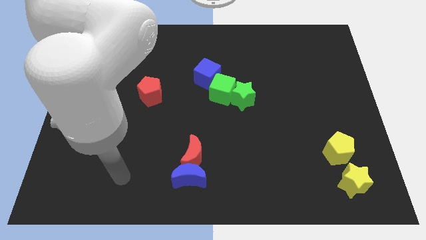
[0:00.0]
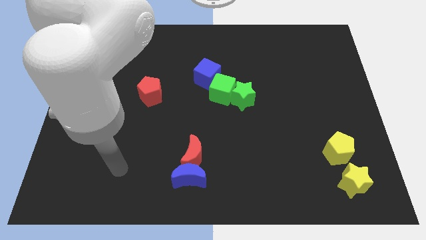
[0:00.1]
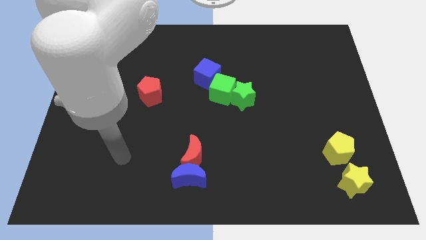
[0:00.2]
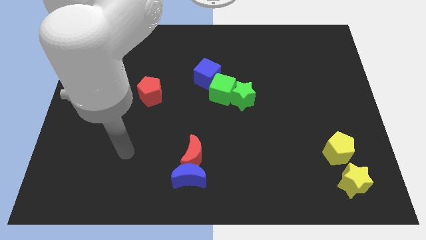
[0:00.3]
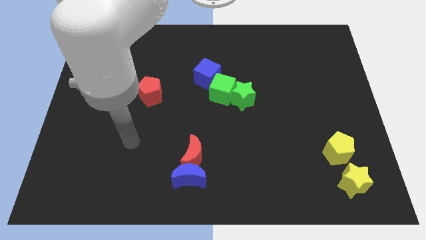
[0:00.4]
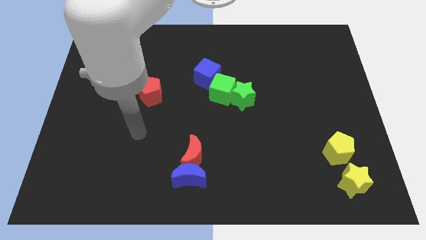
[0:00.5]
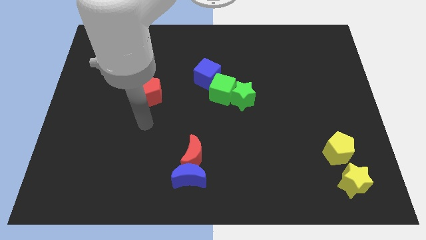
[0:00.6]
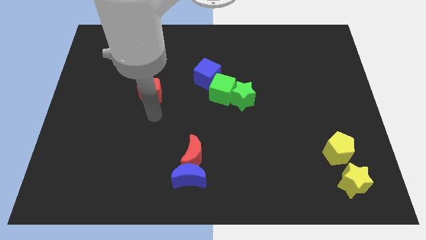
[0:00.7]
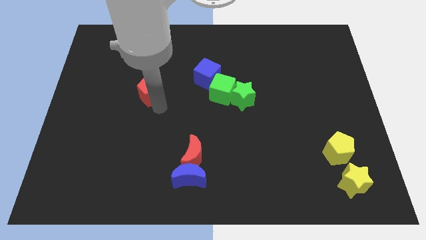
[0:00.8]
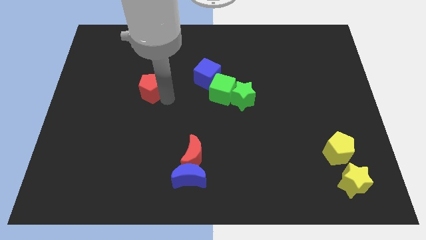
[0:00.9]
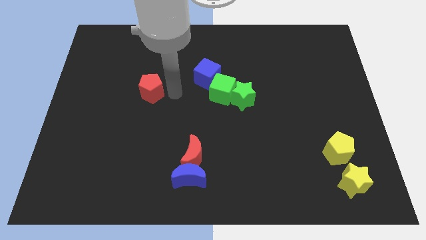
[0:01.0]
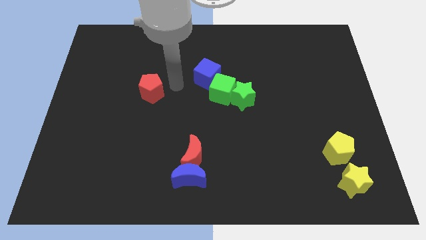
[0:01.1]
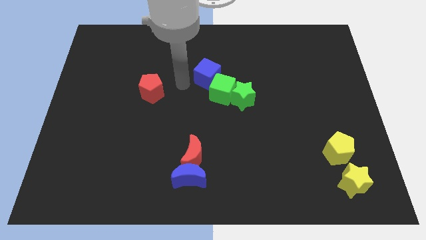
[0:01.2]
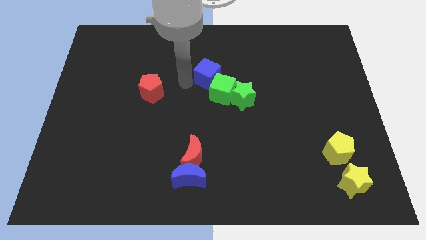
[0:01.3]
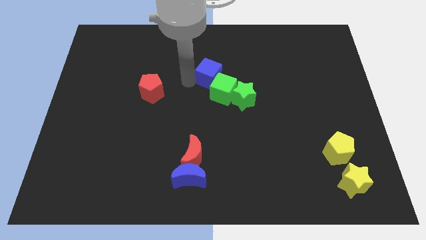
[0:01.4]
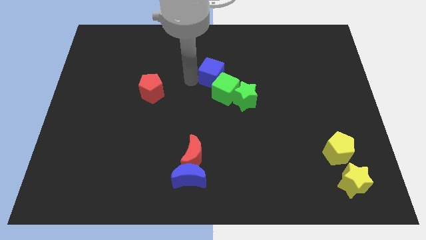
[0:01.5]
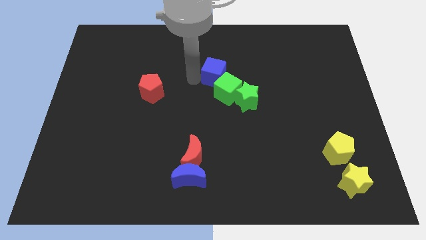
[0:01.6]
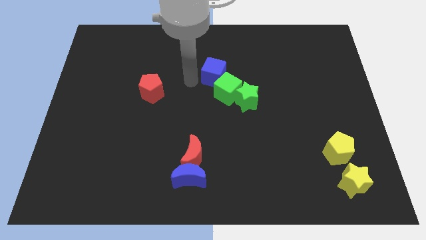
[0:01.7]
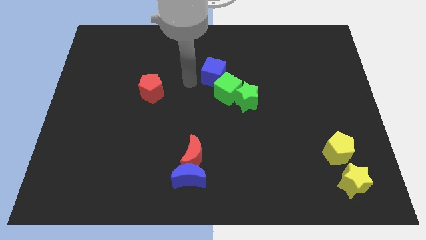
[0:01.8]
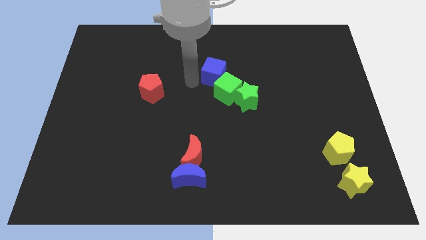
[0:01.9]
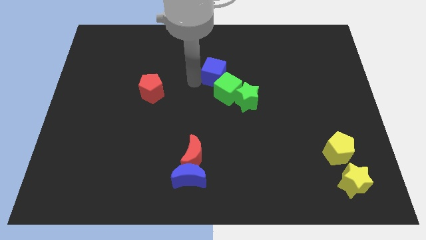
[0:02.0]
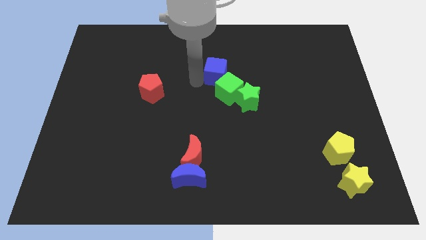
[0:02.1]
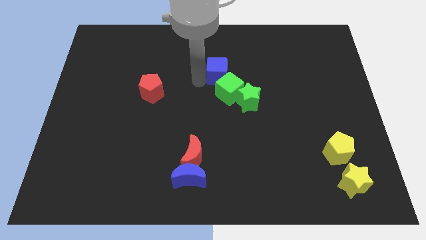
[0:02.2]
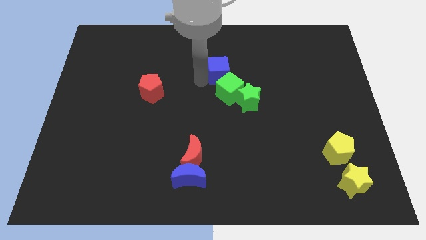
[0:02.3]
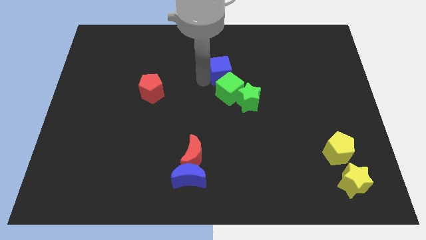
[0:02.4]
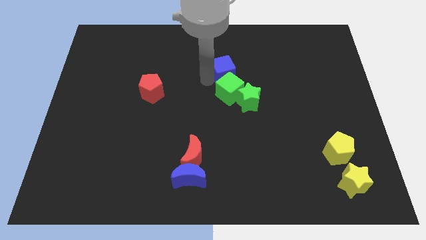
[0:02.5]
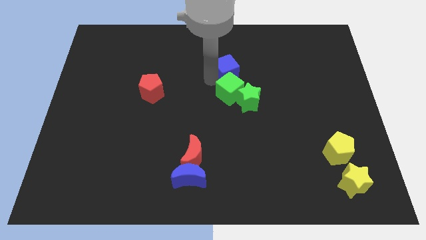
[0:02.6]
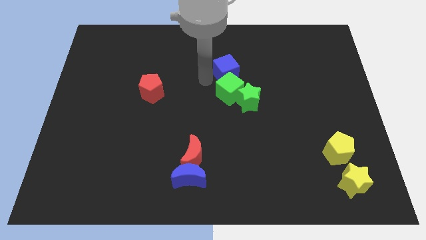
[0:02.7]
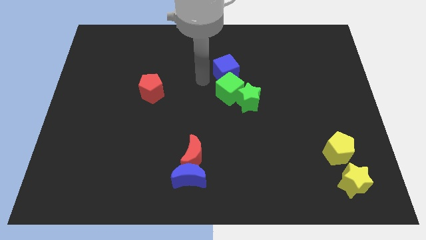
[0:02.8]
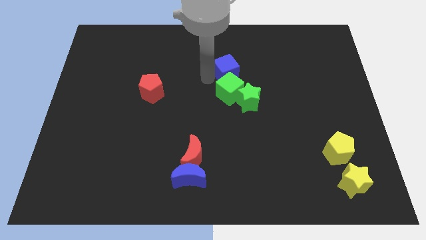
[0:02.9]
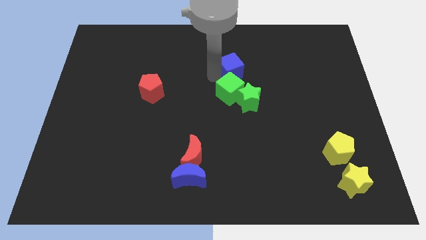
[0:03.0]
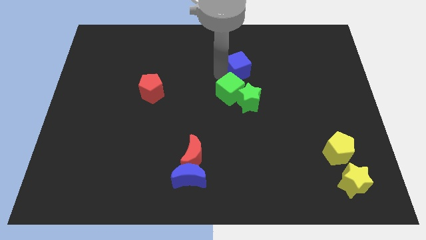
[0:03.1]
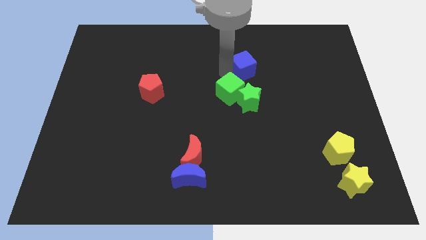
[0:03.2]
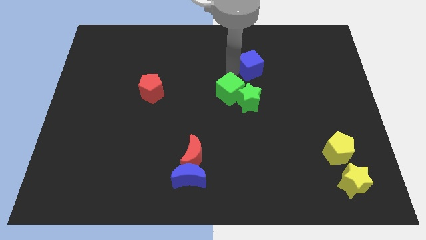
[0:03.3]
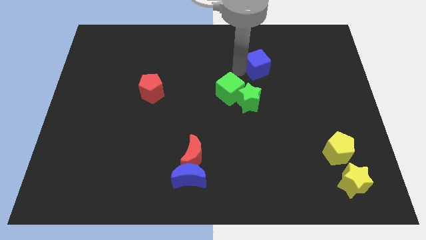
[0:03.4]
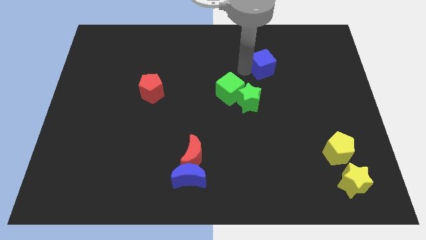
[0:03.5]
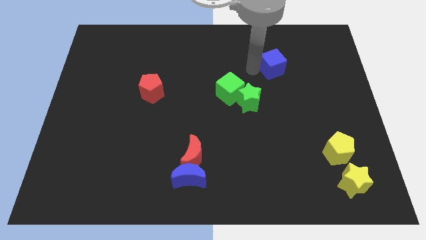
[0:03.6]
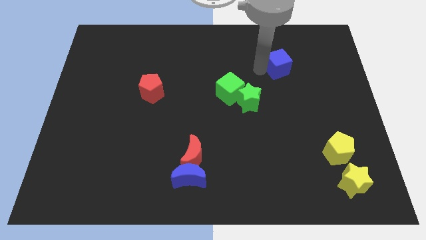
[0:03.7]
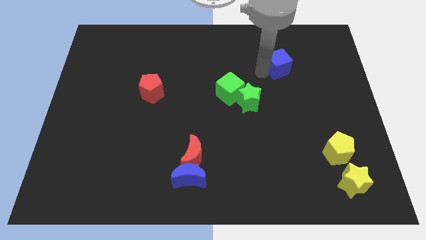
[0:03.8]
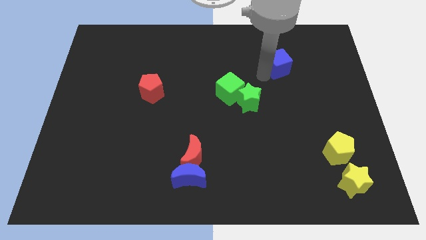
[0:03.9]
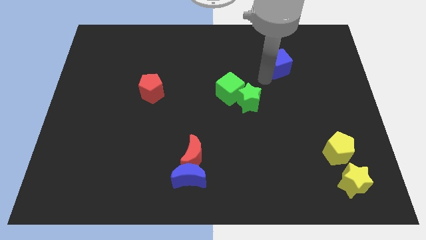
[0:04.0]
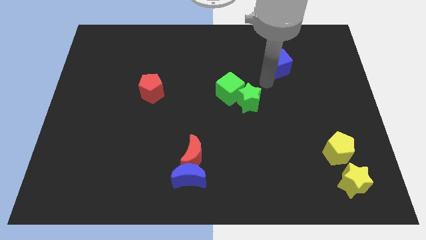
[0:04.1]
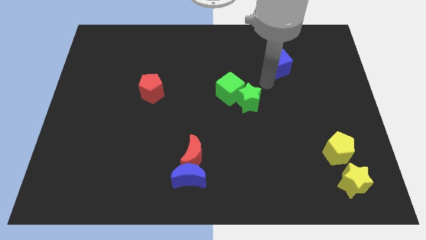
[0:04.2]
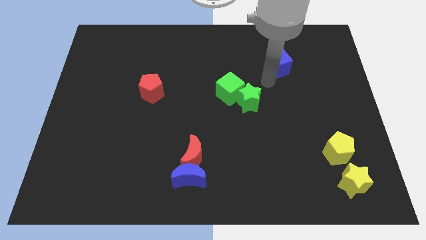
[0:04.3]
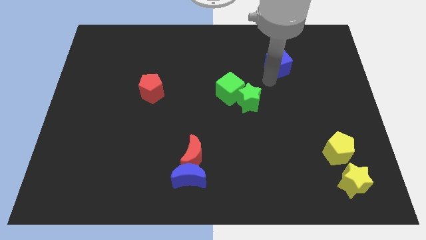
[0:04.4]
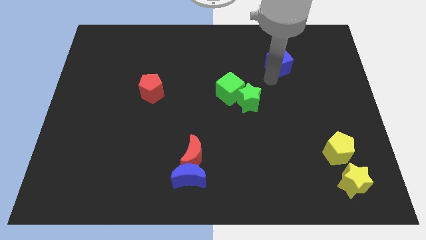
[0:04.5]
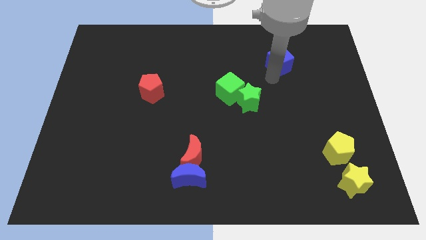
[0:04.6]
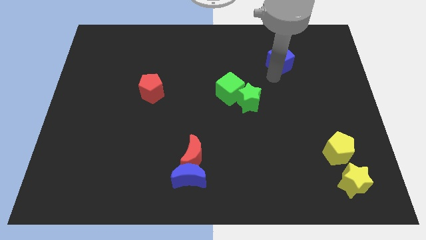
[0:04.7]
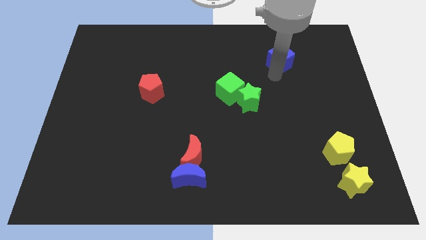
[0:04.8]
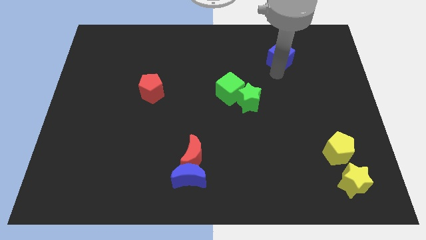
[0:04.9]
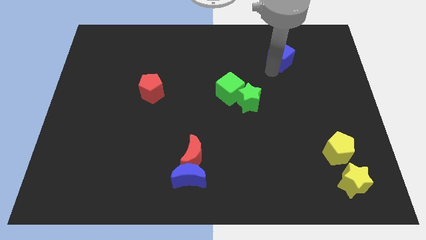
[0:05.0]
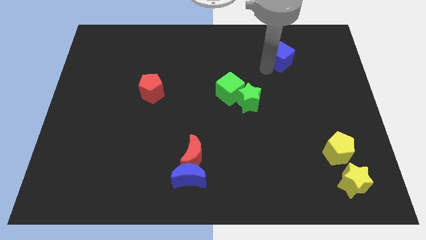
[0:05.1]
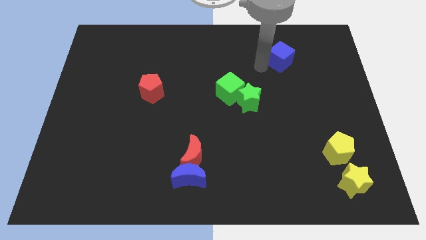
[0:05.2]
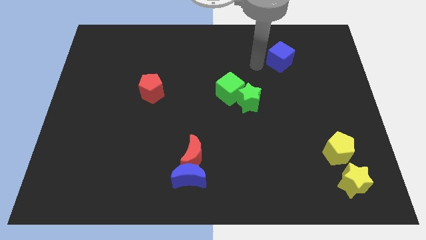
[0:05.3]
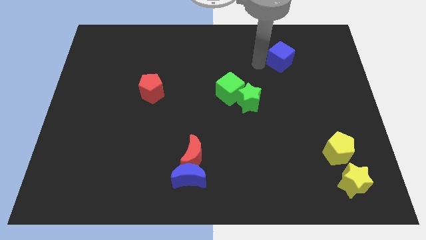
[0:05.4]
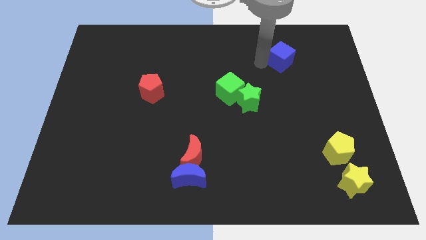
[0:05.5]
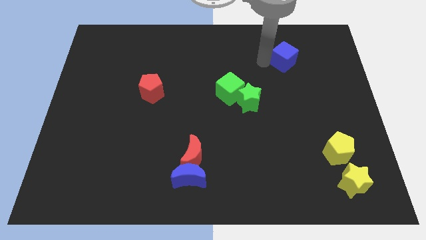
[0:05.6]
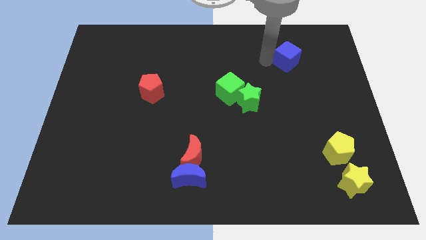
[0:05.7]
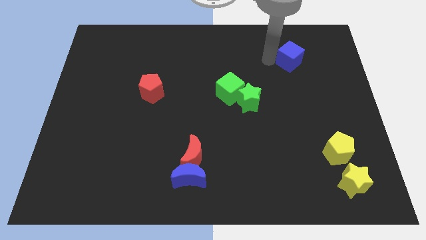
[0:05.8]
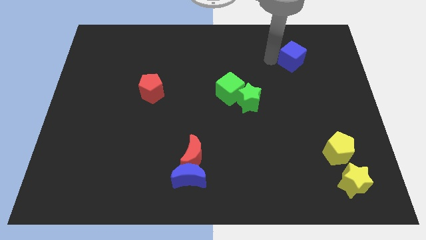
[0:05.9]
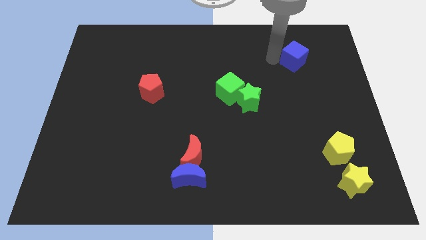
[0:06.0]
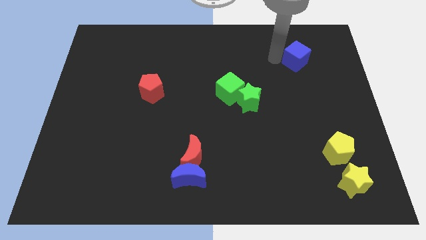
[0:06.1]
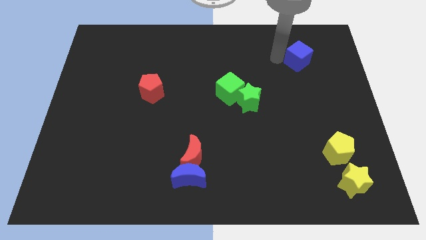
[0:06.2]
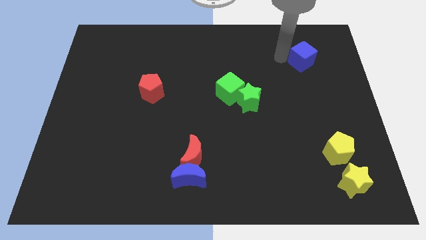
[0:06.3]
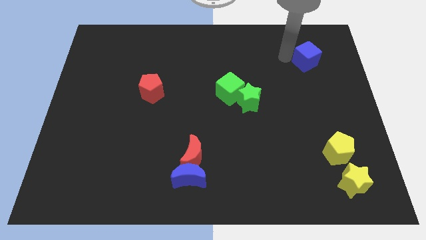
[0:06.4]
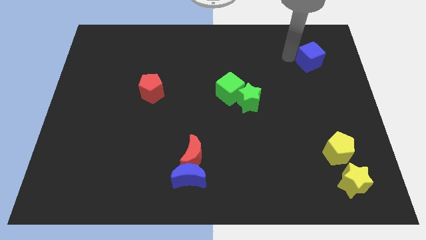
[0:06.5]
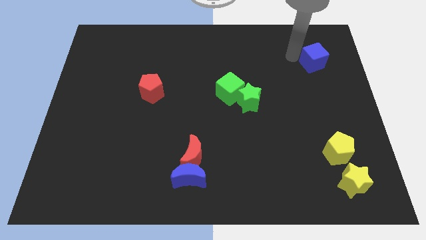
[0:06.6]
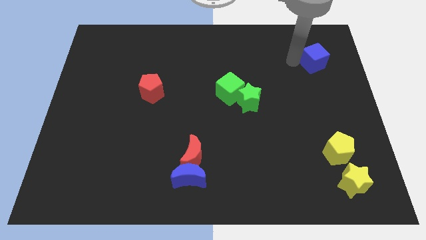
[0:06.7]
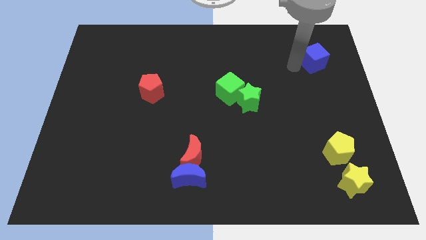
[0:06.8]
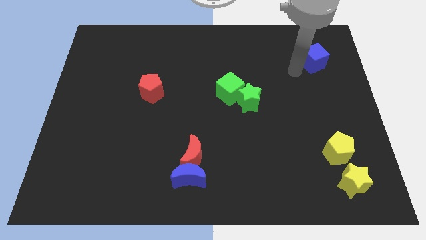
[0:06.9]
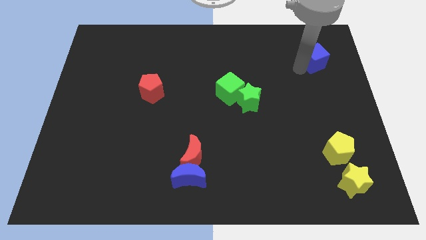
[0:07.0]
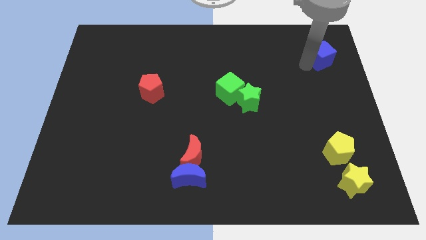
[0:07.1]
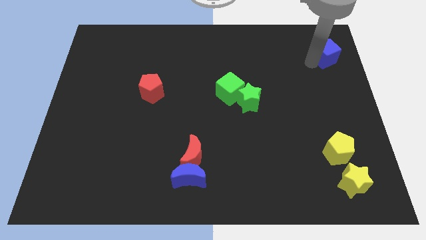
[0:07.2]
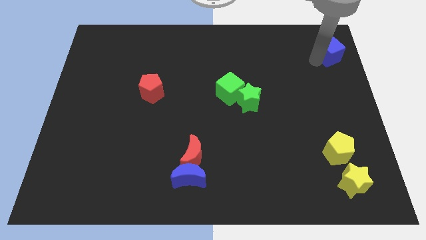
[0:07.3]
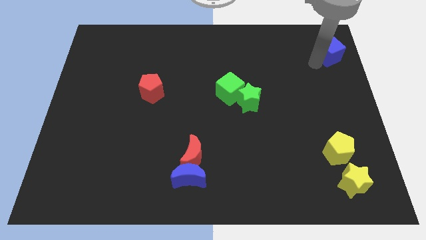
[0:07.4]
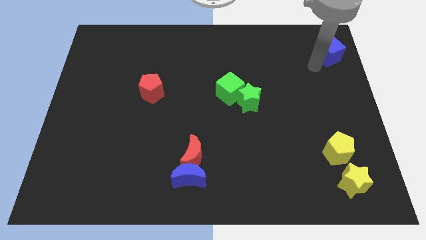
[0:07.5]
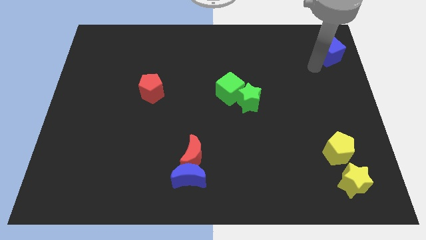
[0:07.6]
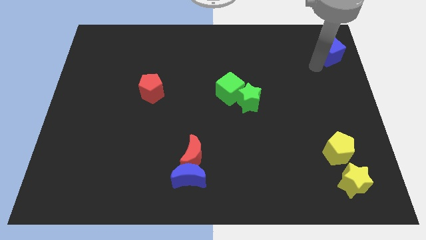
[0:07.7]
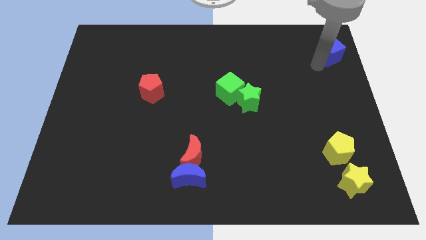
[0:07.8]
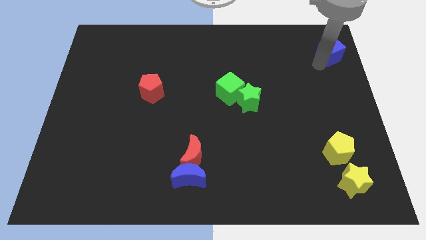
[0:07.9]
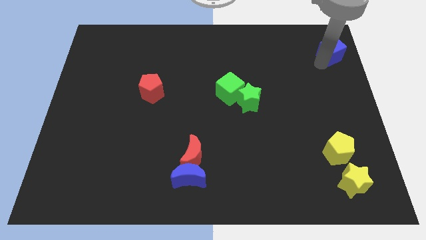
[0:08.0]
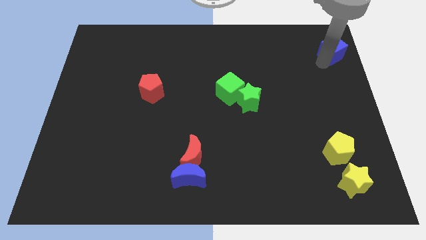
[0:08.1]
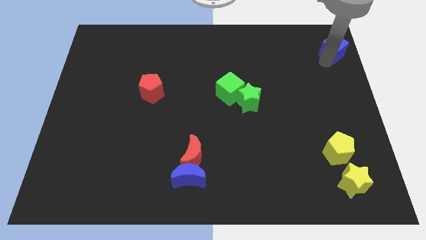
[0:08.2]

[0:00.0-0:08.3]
put the blue cube to the top right corner
